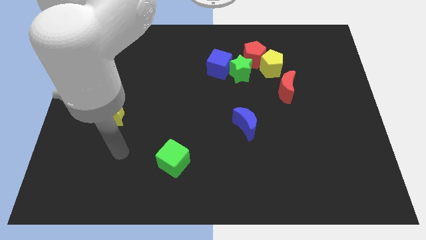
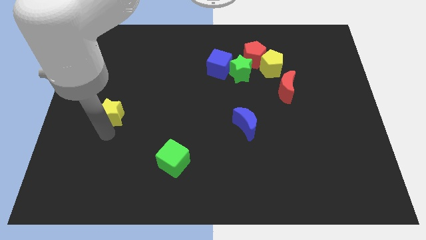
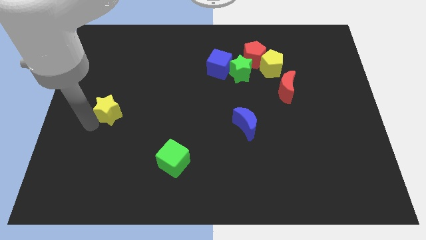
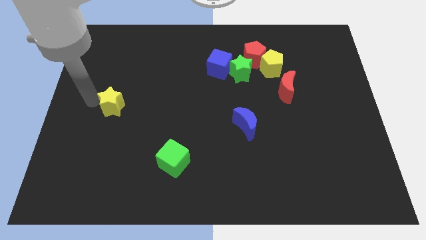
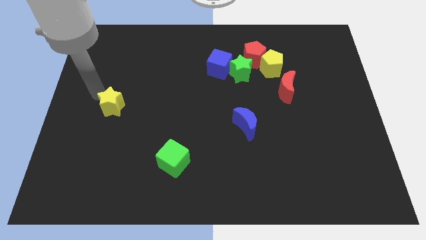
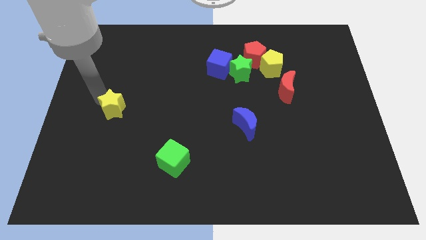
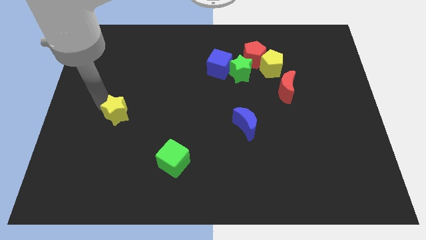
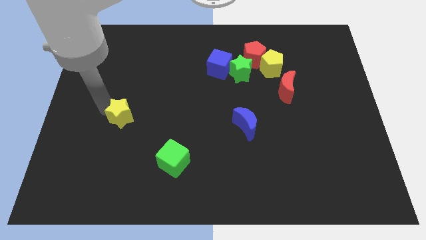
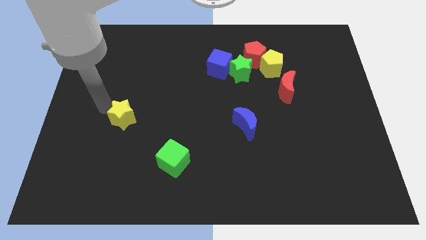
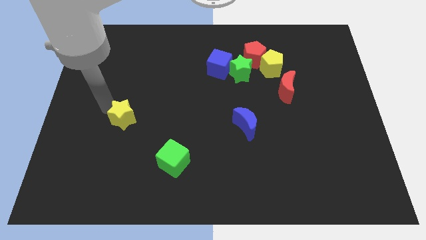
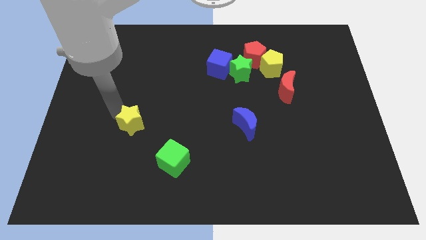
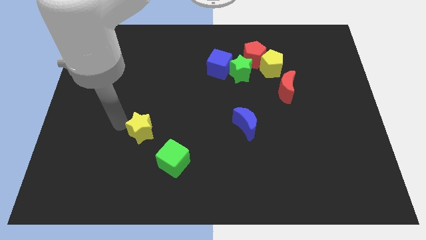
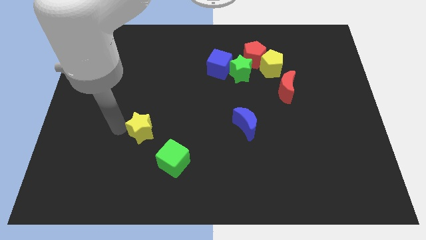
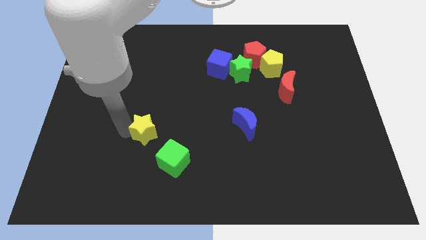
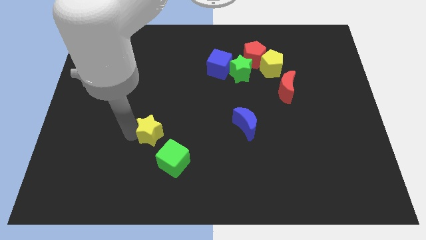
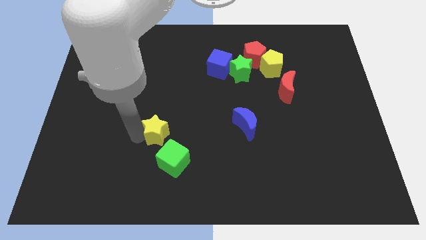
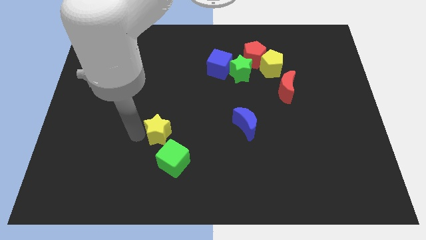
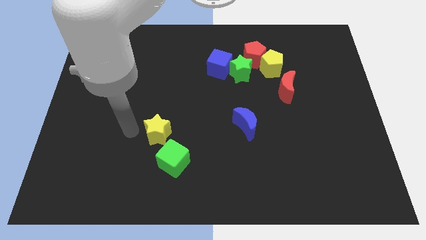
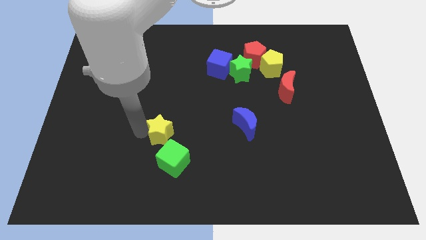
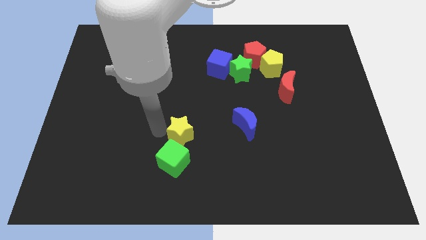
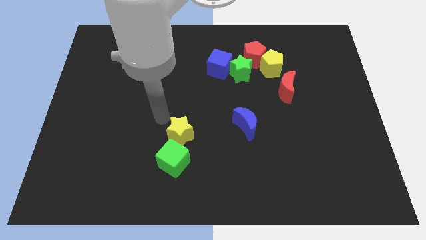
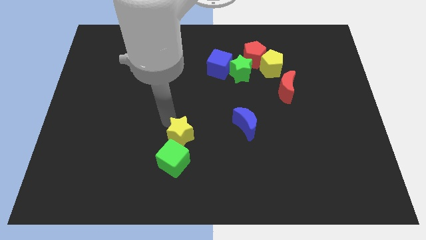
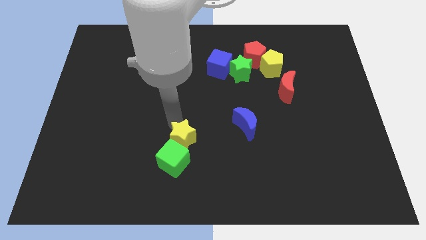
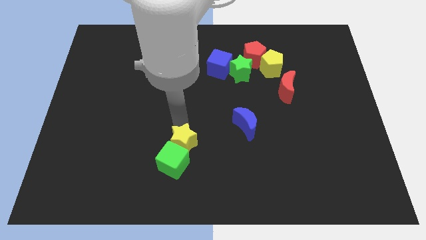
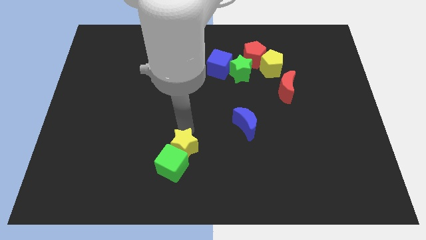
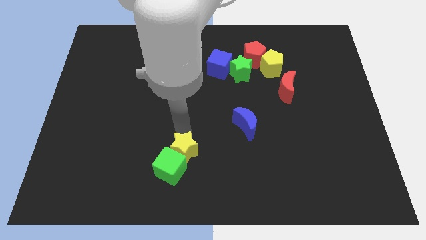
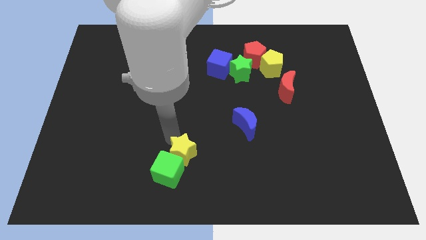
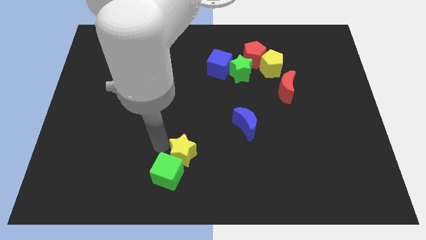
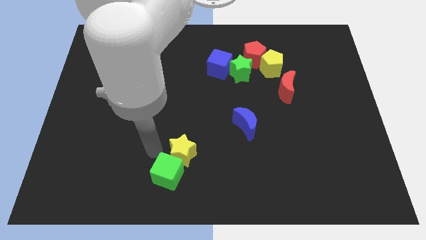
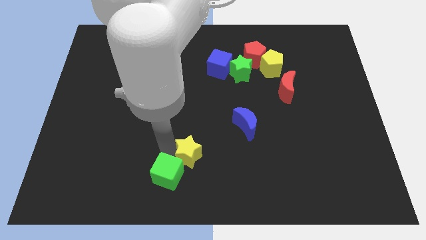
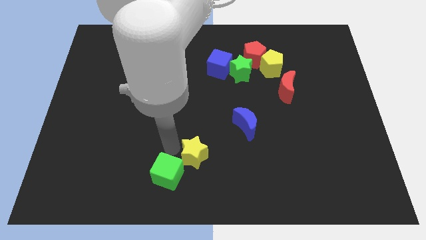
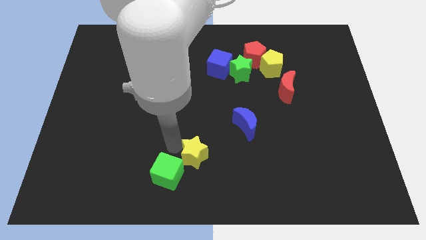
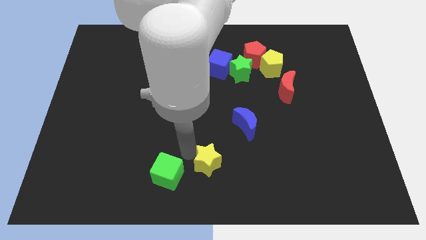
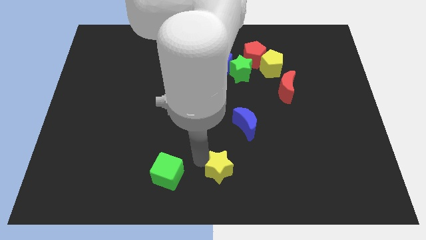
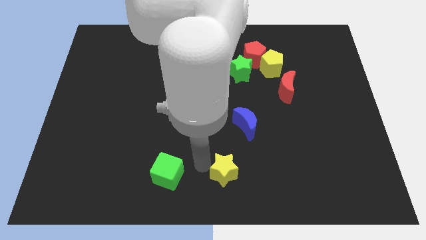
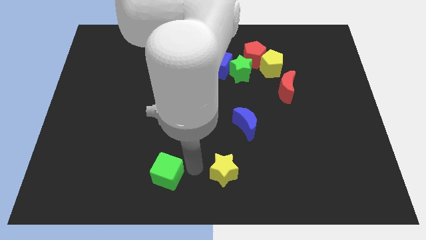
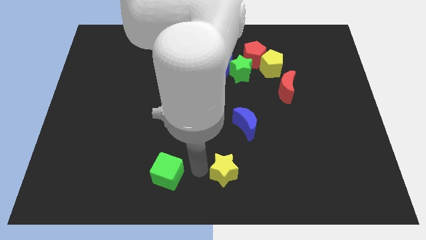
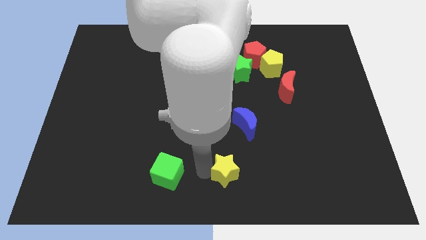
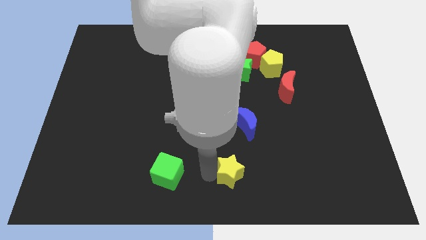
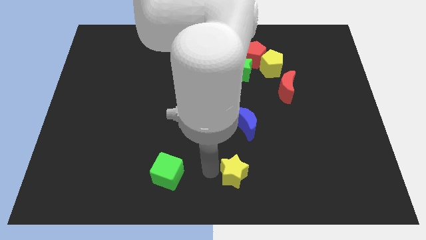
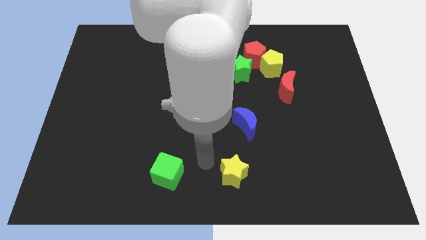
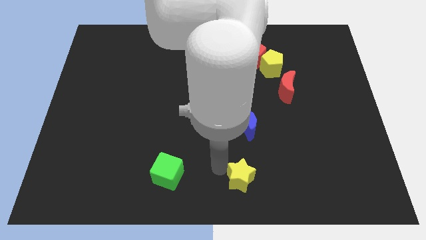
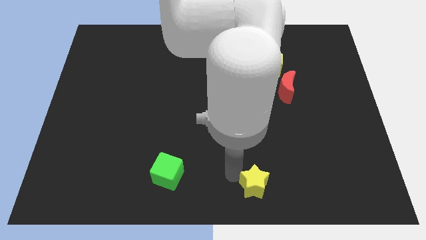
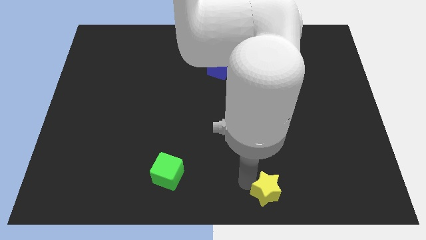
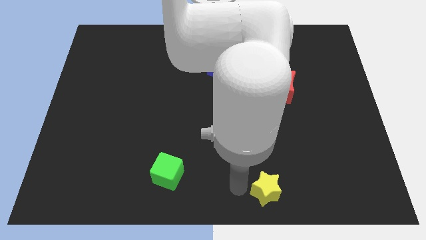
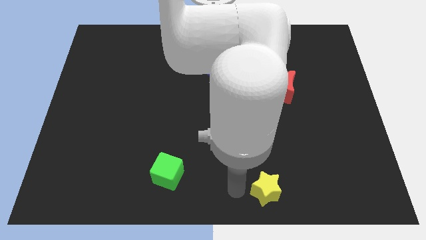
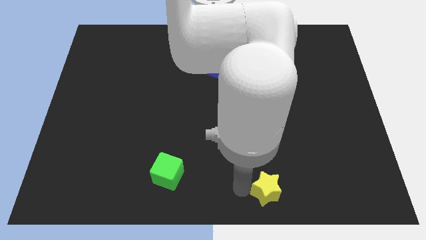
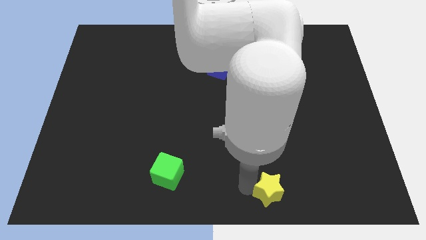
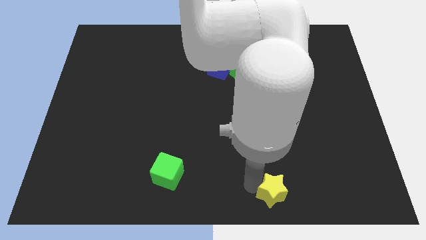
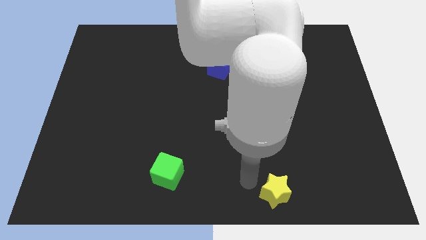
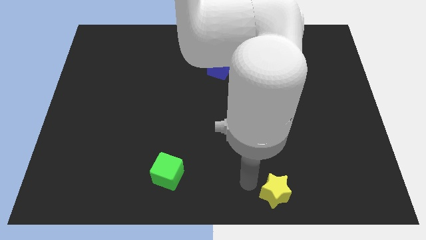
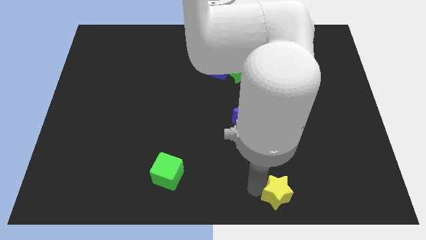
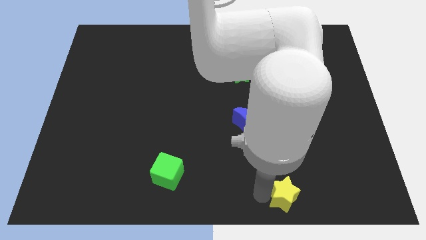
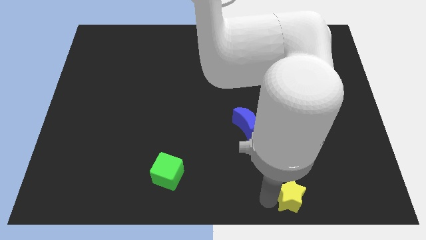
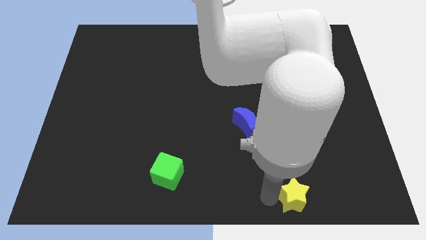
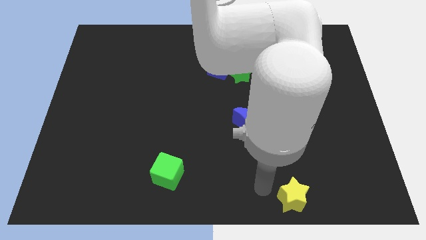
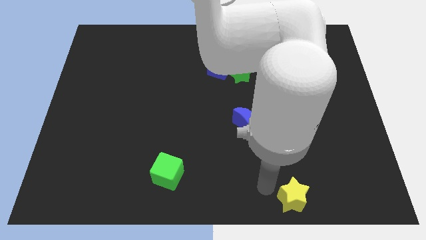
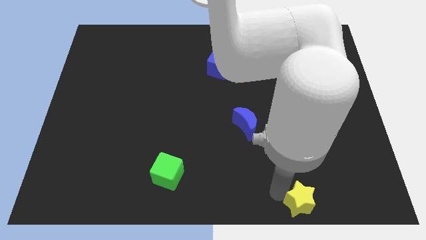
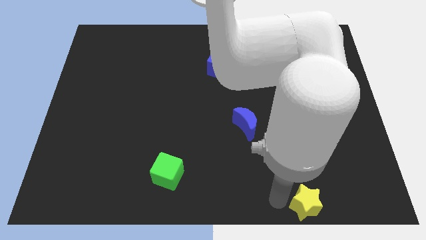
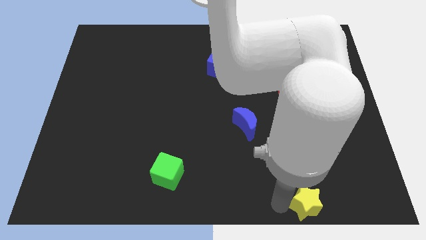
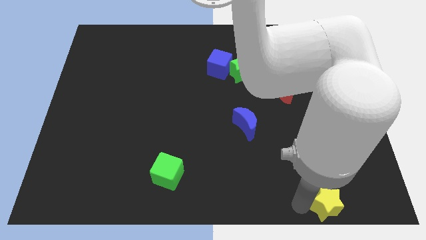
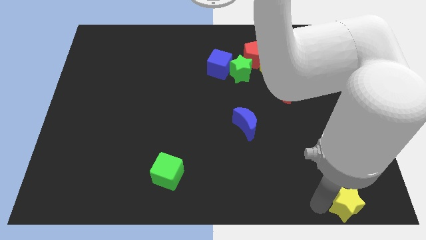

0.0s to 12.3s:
push the yellow star to the bottom right of the board
